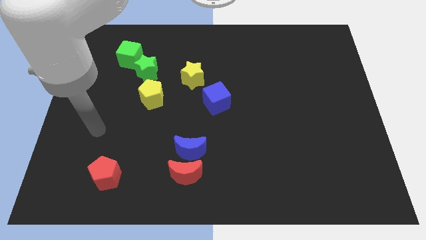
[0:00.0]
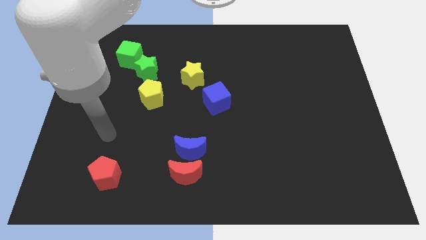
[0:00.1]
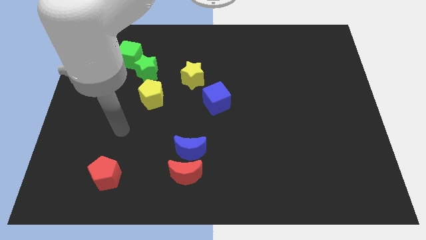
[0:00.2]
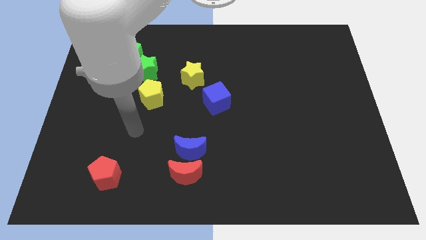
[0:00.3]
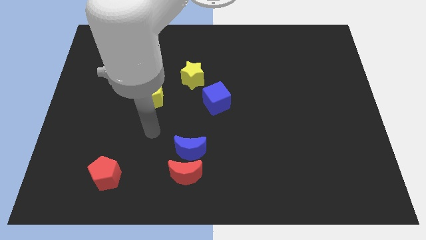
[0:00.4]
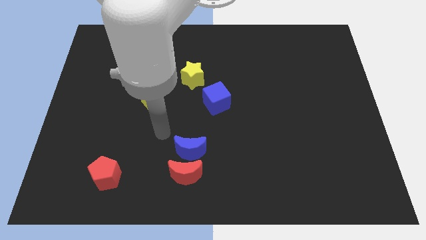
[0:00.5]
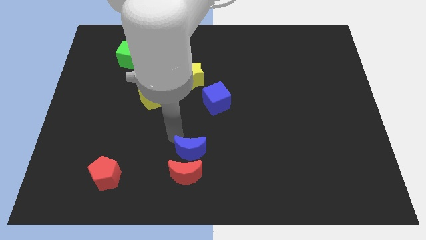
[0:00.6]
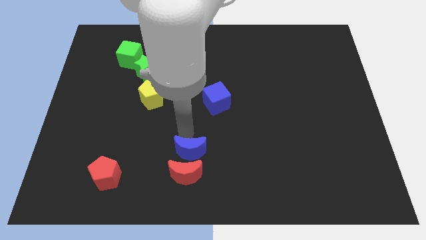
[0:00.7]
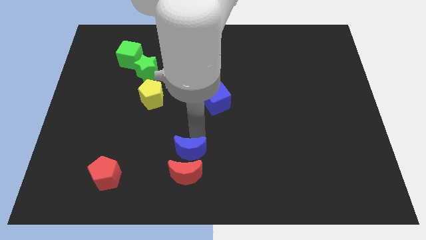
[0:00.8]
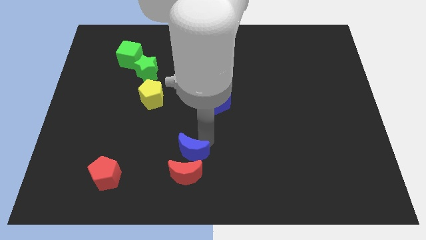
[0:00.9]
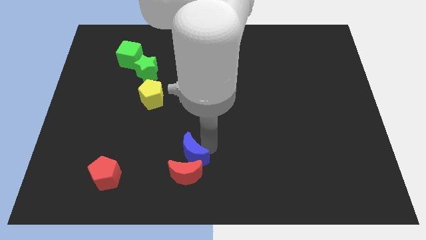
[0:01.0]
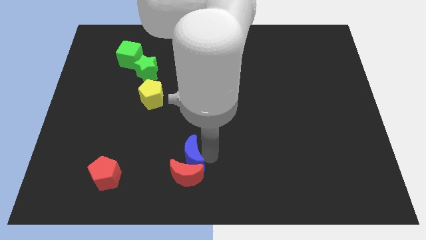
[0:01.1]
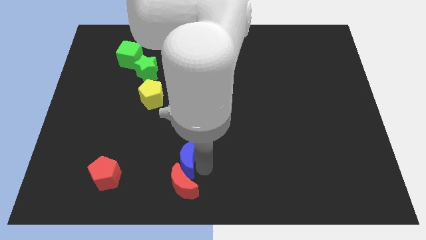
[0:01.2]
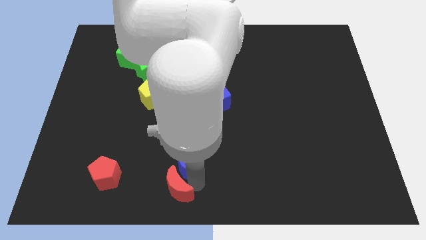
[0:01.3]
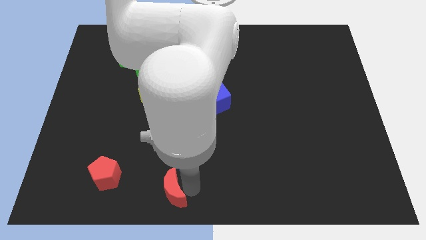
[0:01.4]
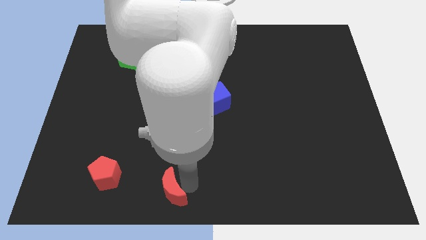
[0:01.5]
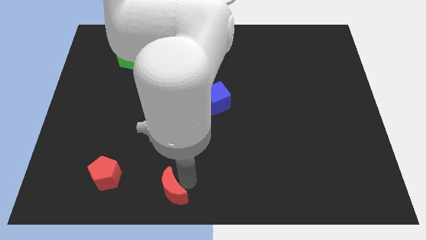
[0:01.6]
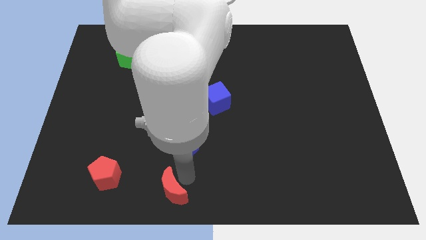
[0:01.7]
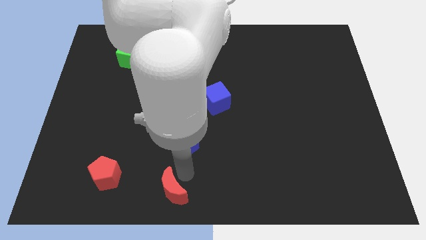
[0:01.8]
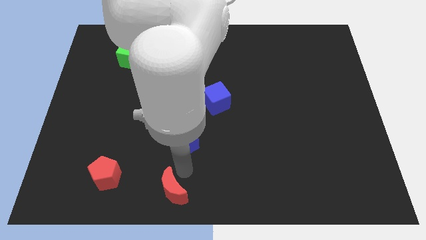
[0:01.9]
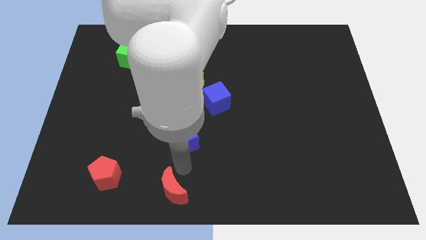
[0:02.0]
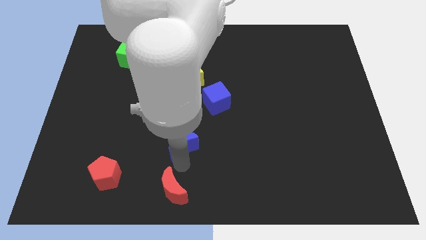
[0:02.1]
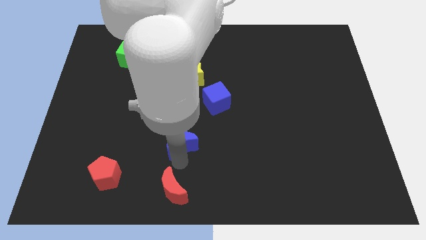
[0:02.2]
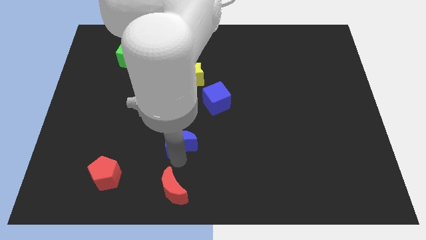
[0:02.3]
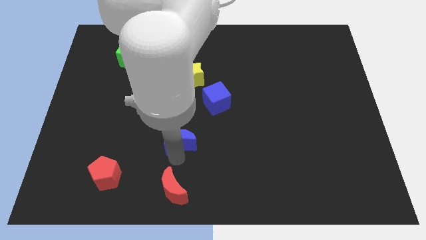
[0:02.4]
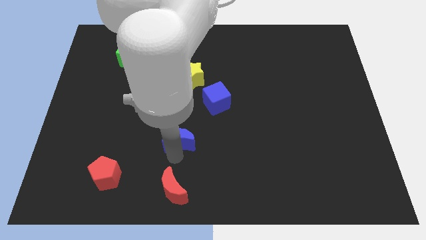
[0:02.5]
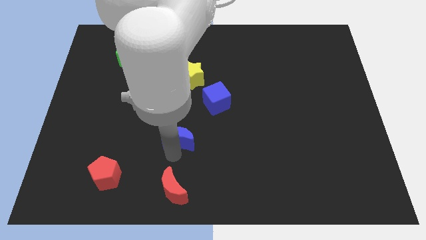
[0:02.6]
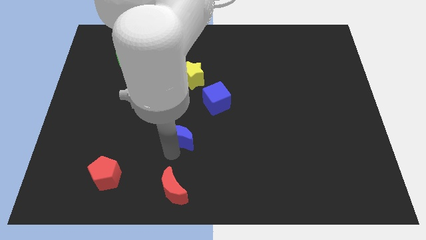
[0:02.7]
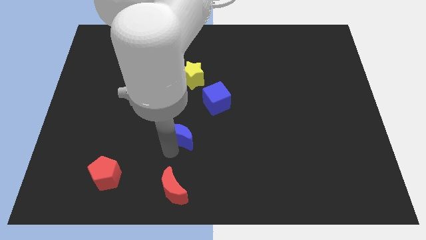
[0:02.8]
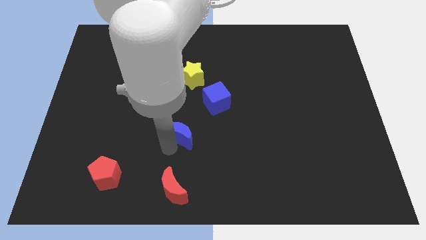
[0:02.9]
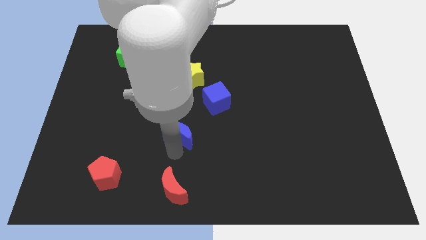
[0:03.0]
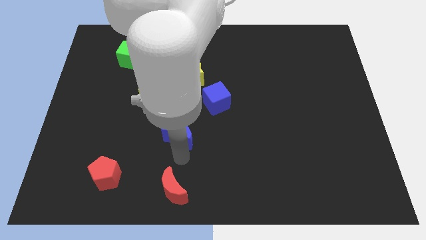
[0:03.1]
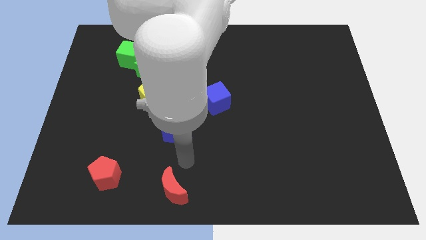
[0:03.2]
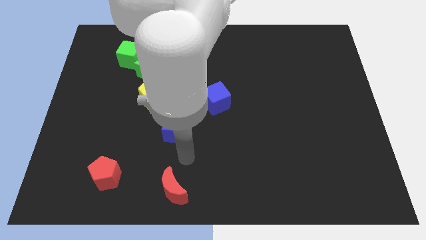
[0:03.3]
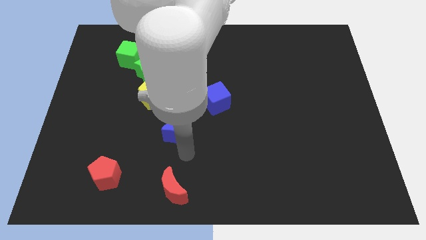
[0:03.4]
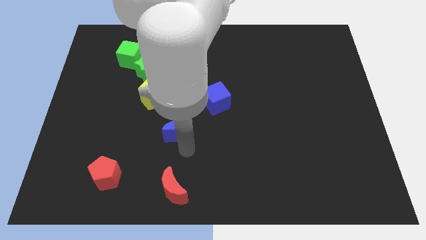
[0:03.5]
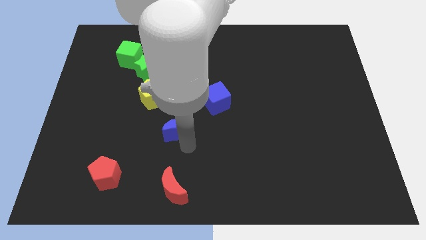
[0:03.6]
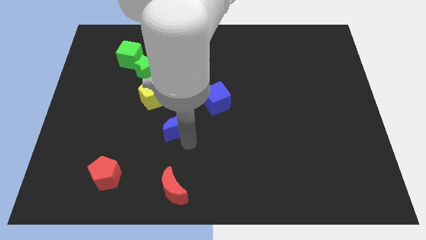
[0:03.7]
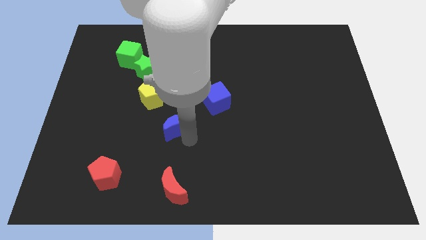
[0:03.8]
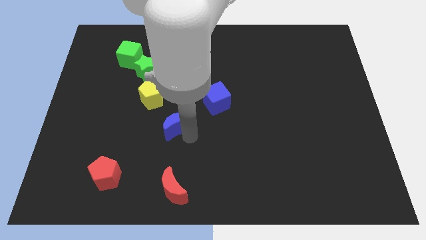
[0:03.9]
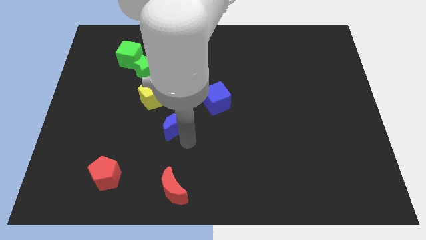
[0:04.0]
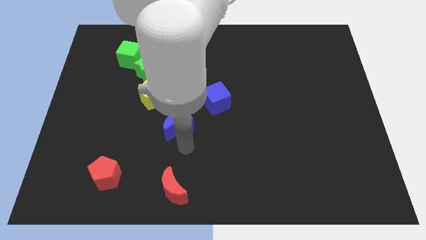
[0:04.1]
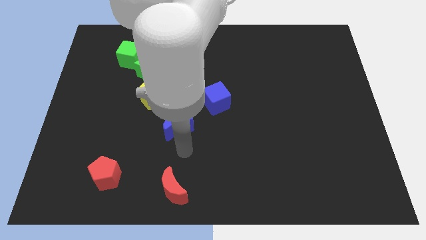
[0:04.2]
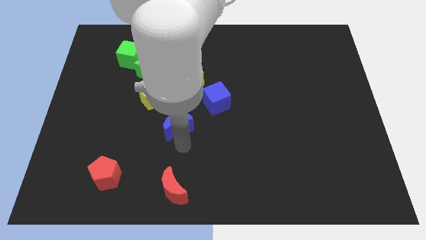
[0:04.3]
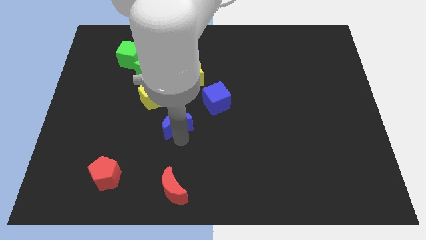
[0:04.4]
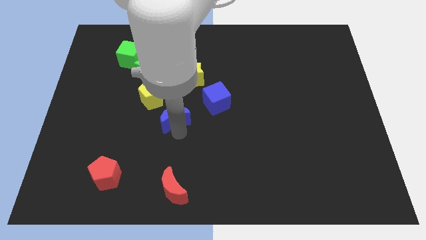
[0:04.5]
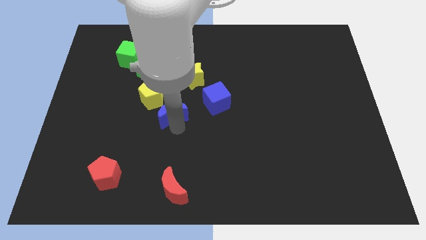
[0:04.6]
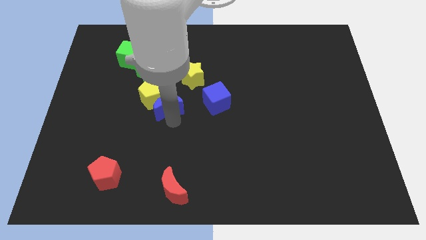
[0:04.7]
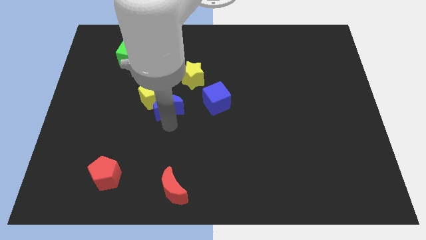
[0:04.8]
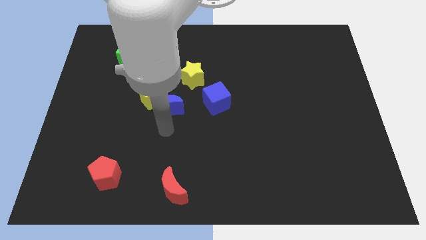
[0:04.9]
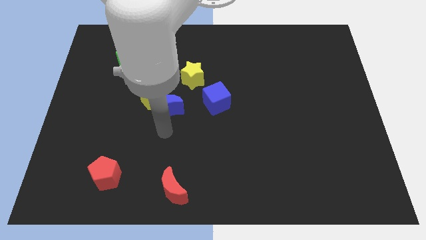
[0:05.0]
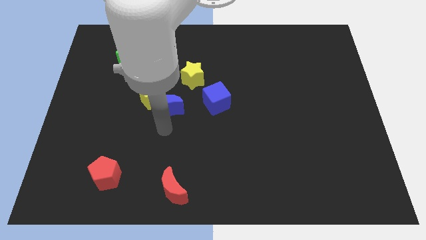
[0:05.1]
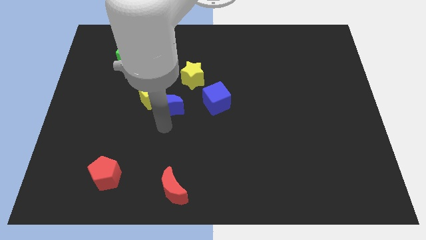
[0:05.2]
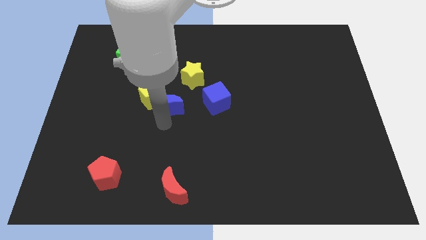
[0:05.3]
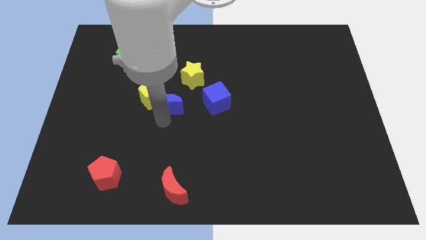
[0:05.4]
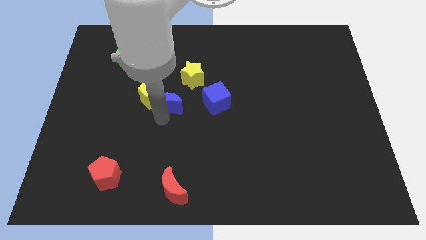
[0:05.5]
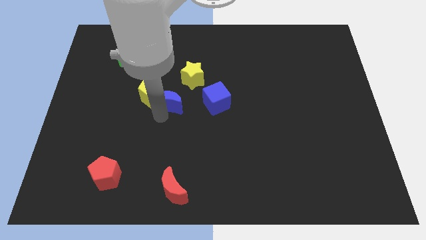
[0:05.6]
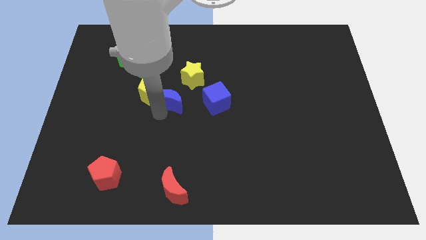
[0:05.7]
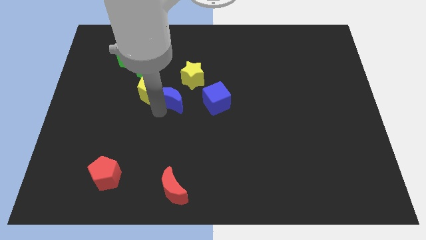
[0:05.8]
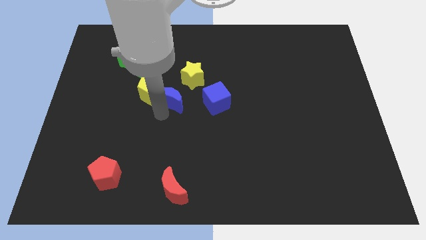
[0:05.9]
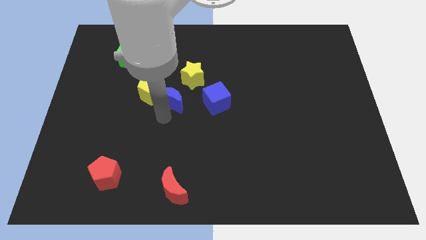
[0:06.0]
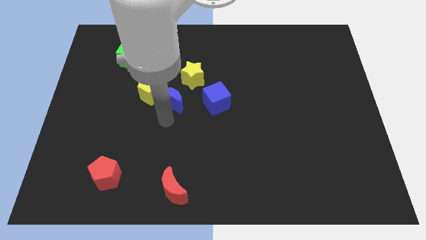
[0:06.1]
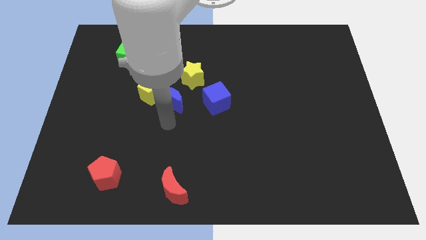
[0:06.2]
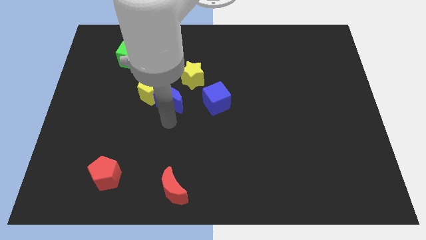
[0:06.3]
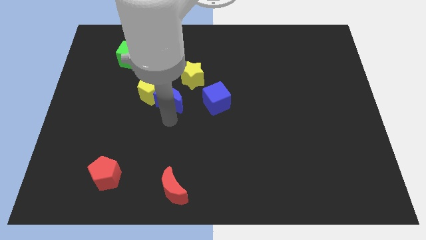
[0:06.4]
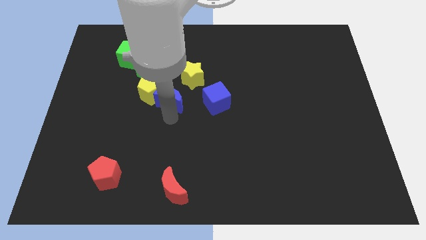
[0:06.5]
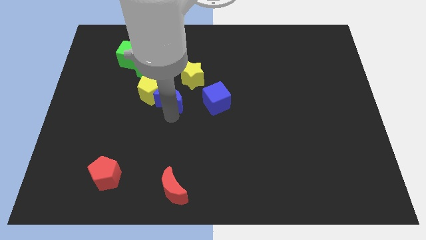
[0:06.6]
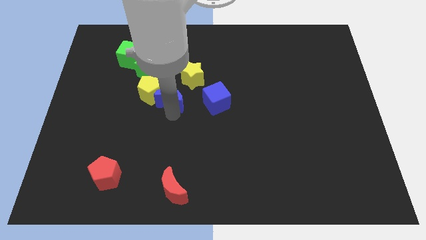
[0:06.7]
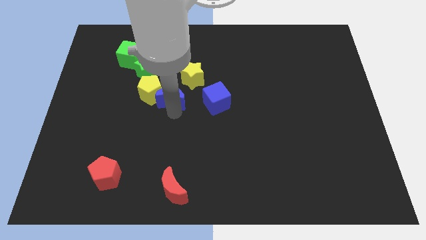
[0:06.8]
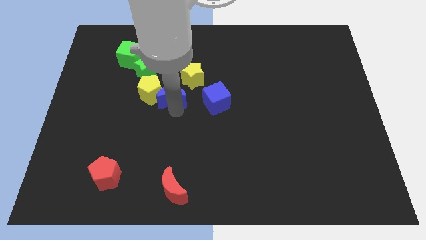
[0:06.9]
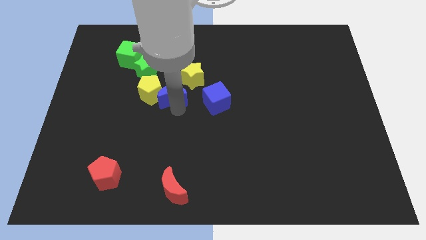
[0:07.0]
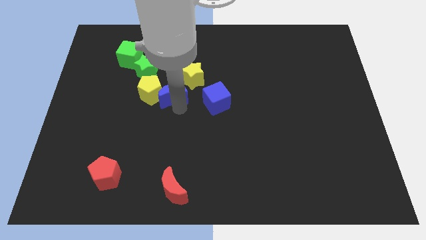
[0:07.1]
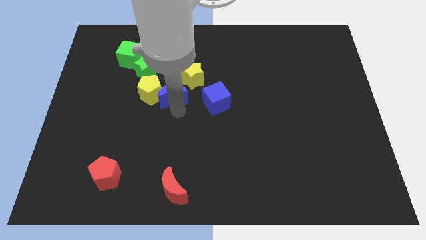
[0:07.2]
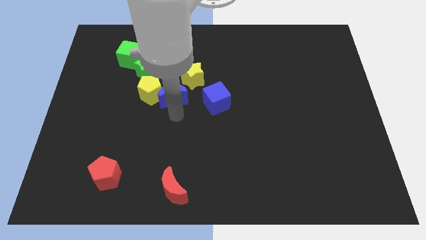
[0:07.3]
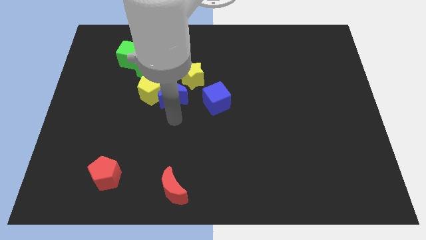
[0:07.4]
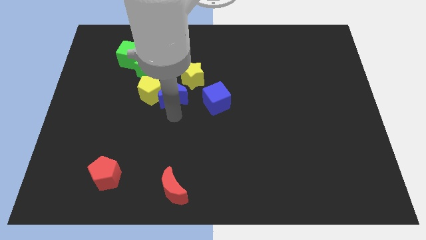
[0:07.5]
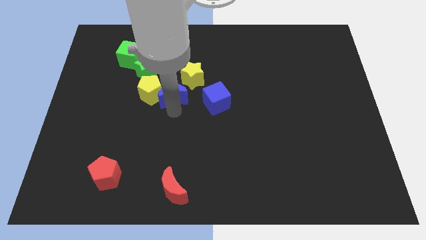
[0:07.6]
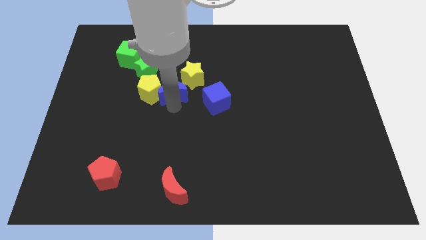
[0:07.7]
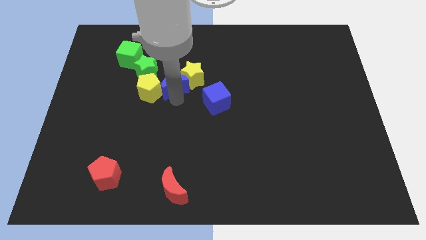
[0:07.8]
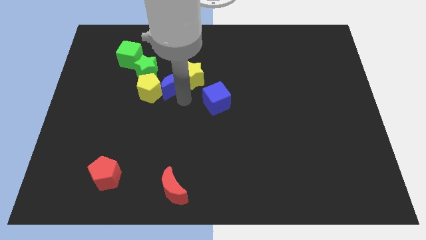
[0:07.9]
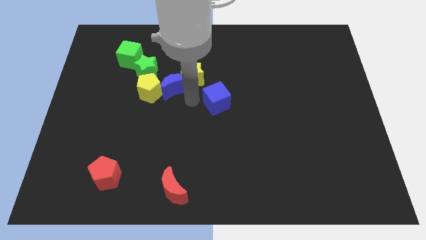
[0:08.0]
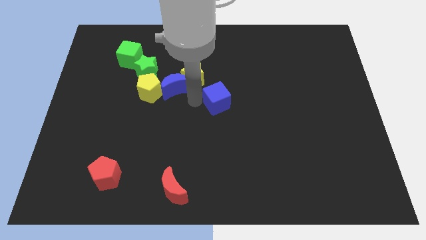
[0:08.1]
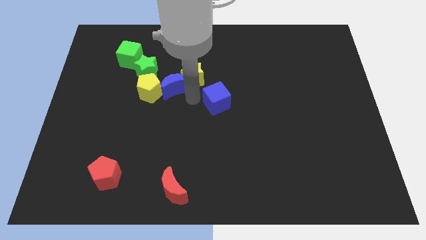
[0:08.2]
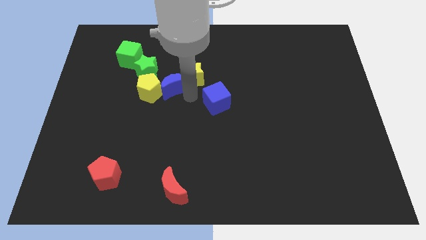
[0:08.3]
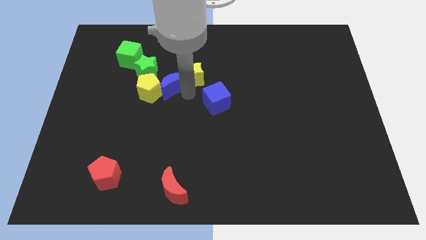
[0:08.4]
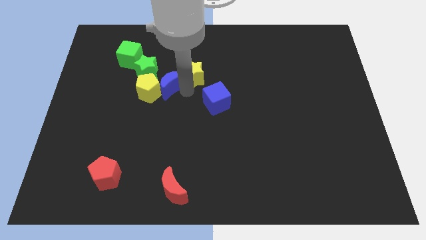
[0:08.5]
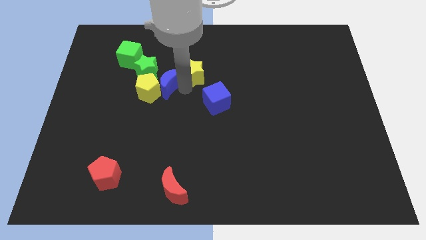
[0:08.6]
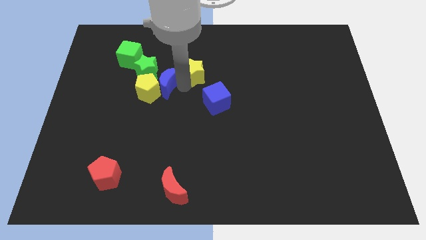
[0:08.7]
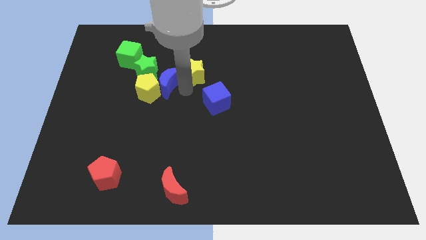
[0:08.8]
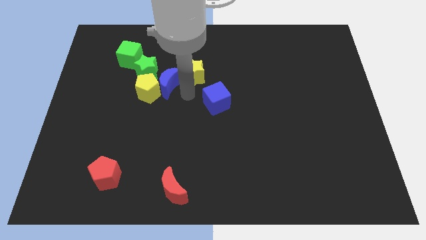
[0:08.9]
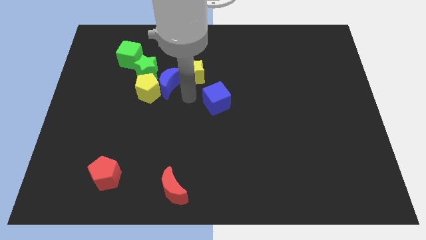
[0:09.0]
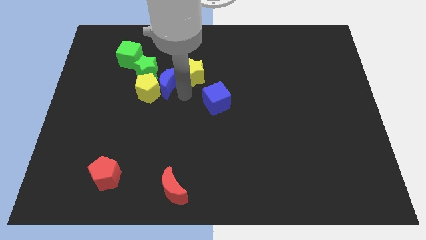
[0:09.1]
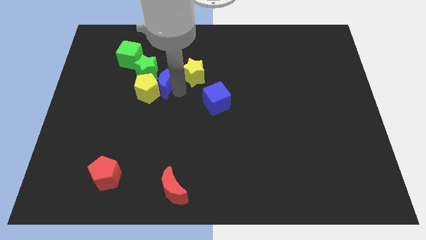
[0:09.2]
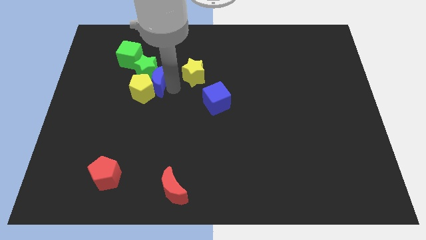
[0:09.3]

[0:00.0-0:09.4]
move the blue moon close to the green star
